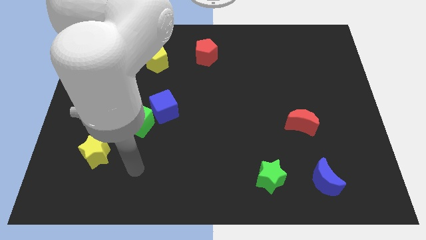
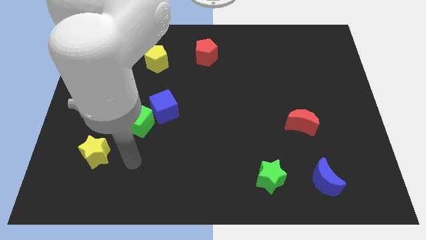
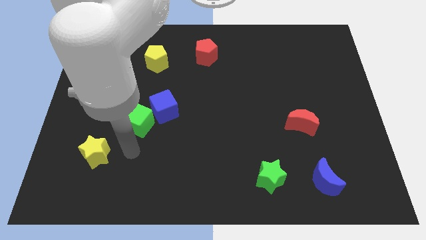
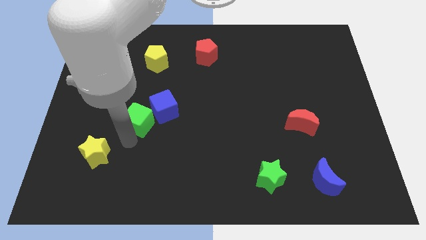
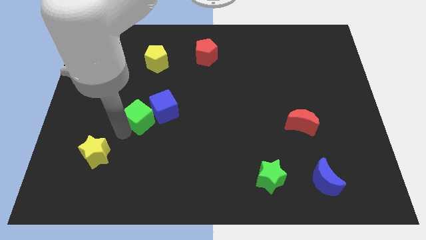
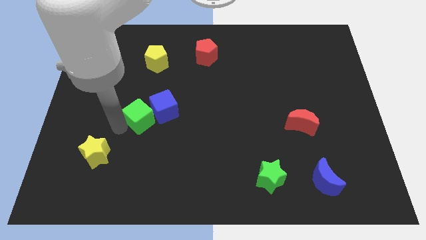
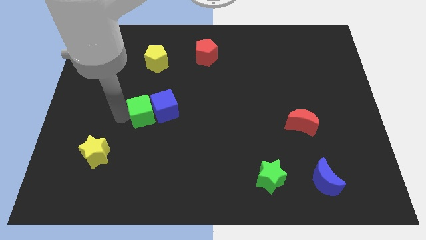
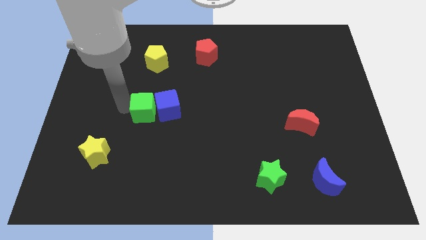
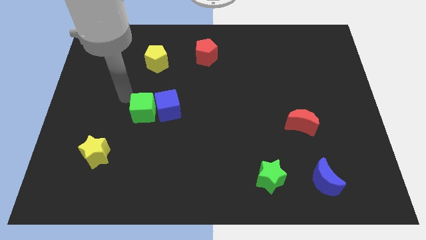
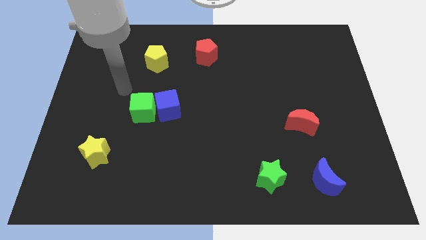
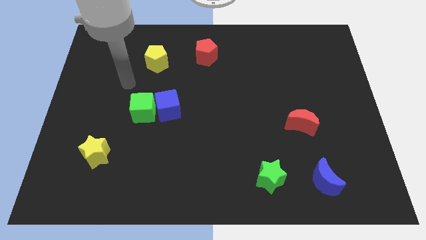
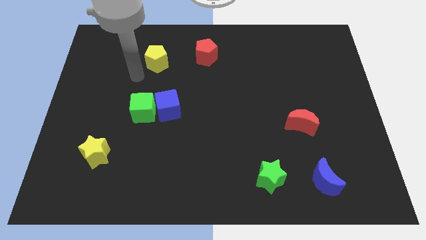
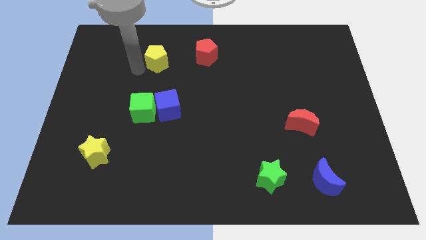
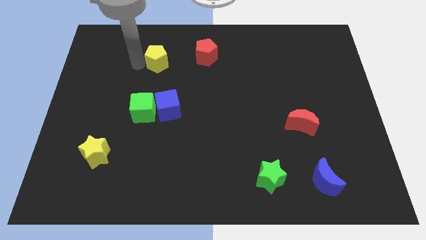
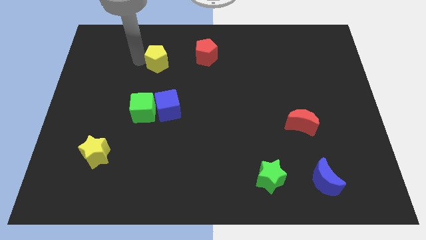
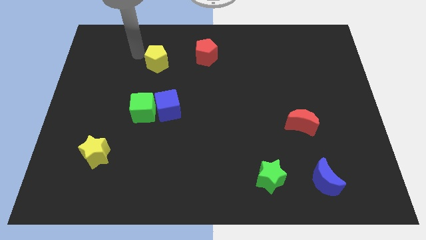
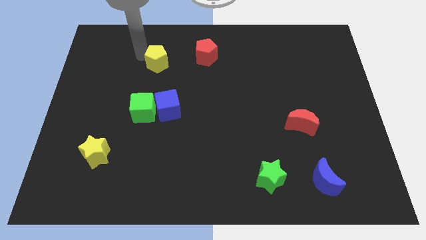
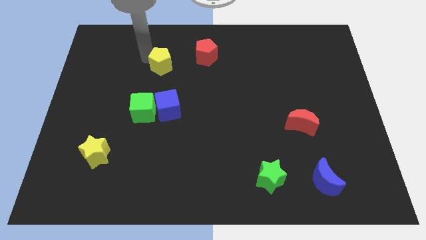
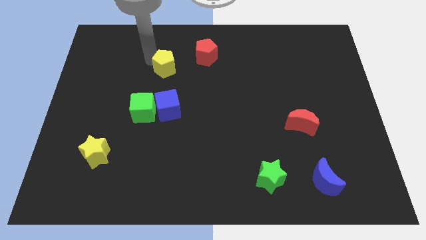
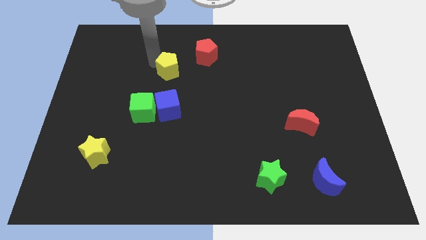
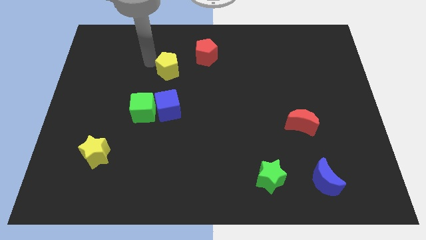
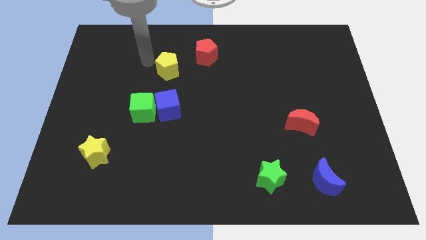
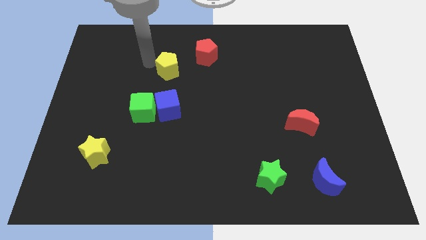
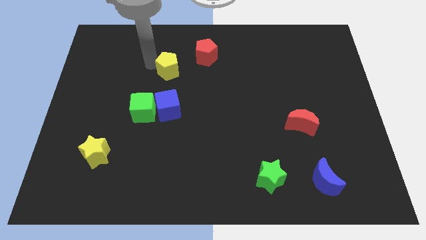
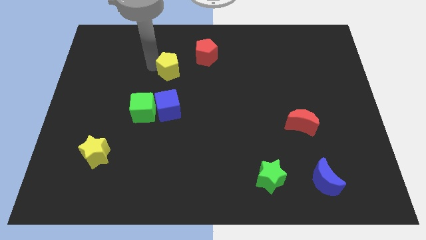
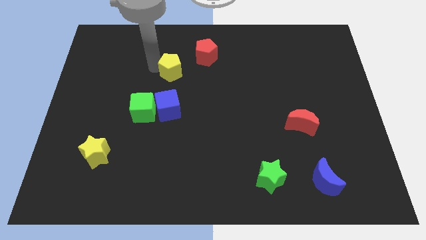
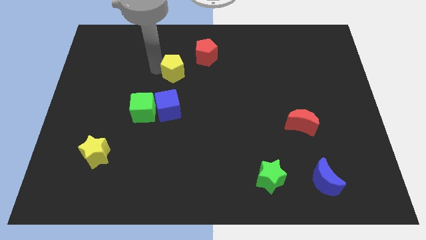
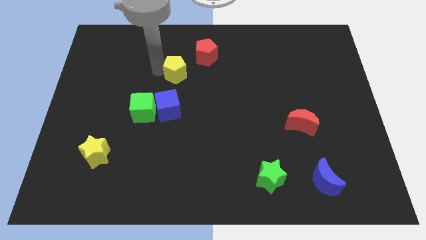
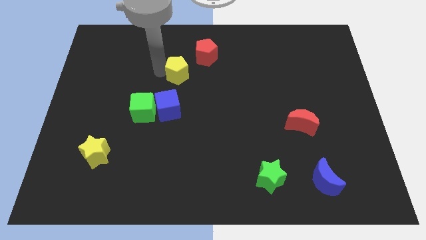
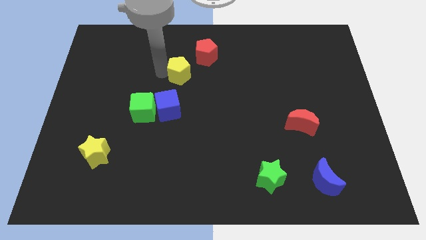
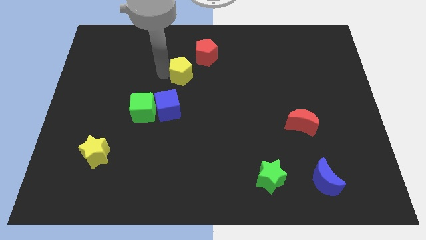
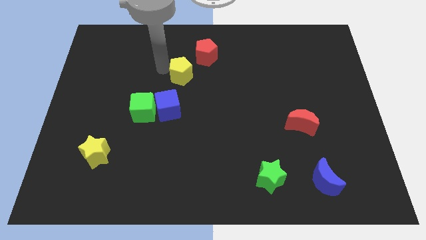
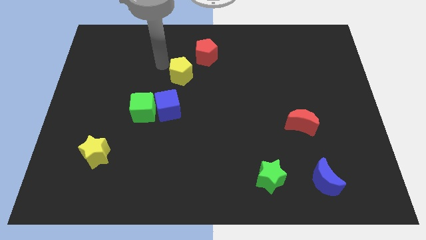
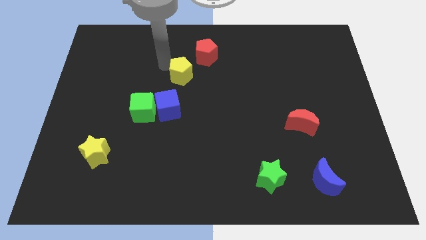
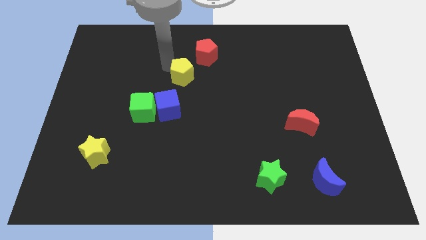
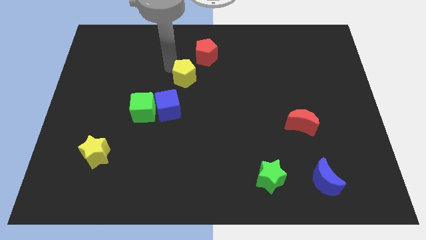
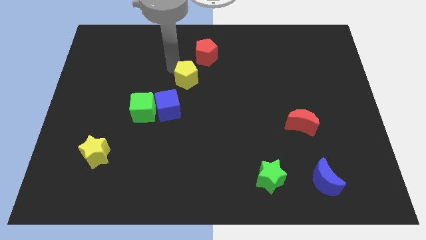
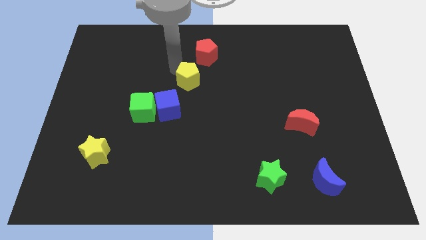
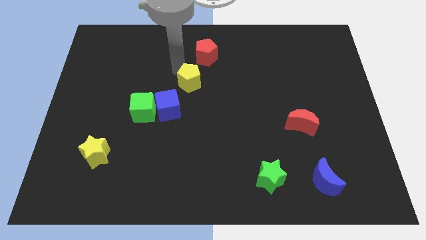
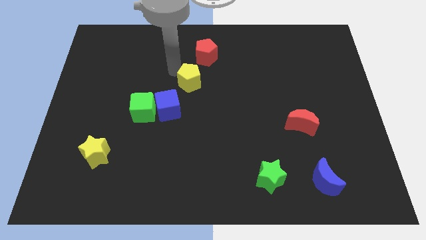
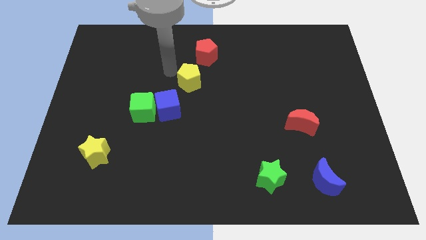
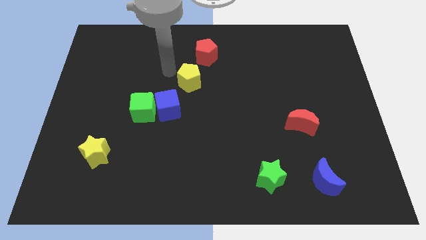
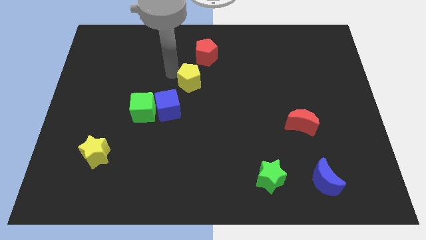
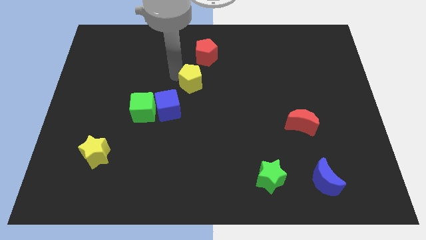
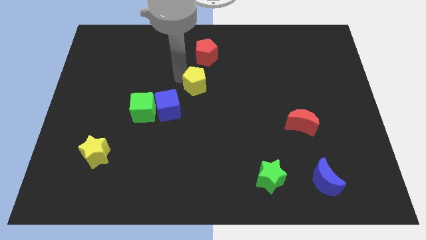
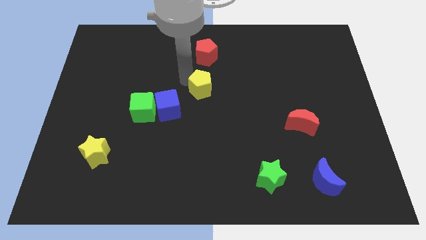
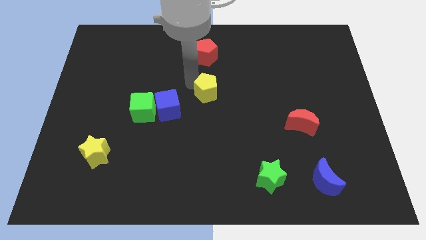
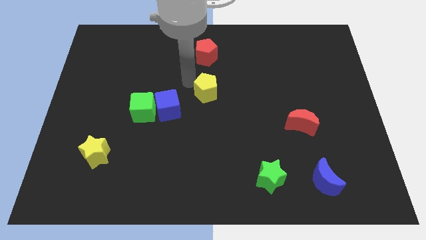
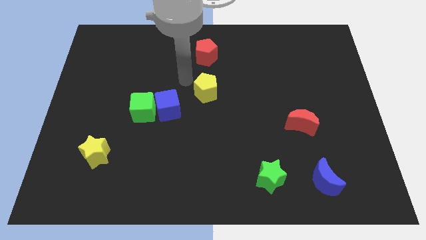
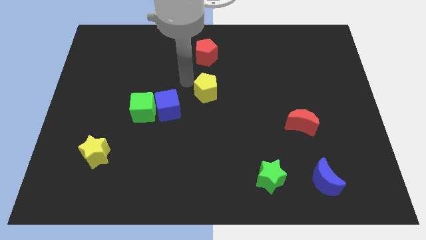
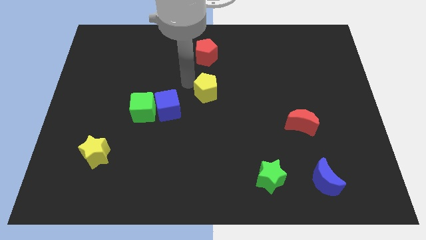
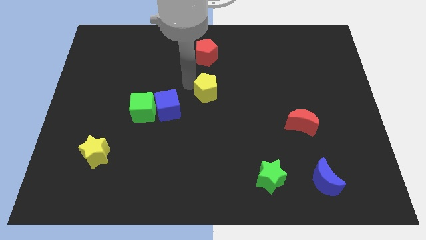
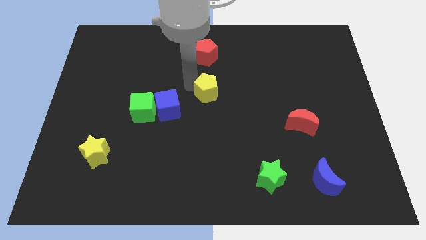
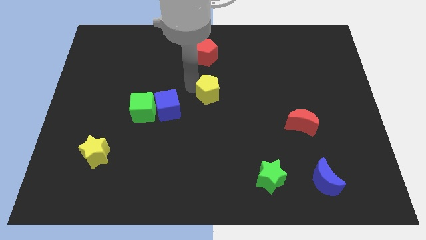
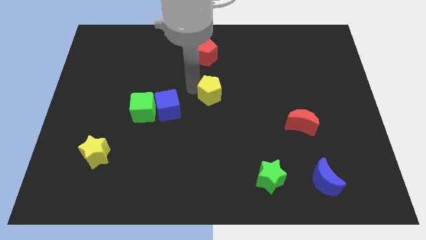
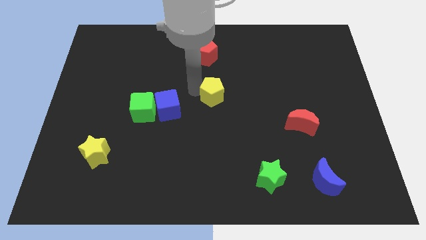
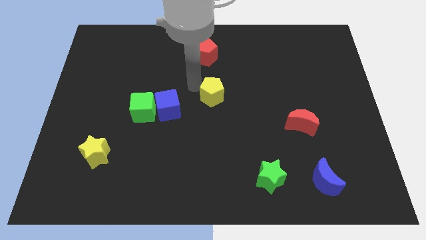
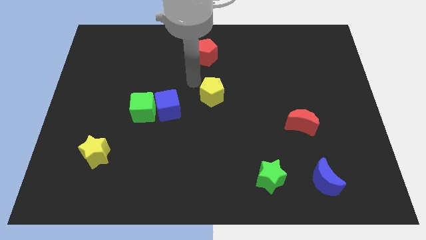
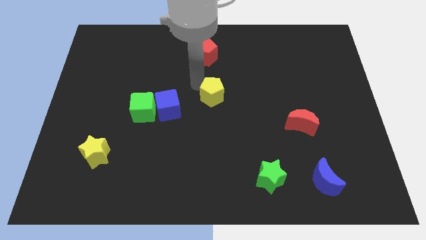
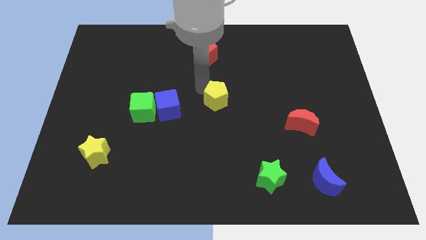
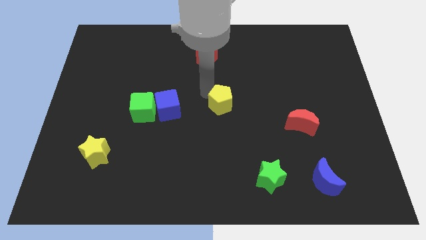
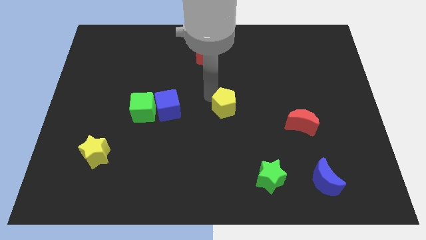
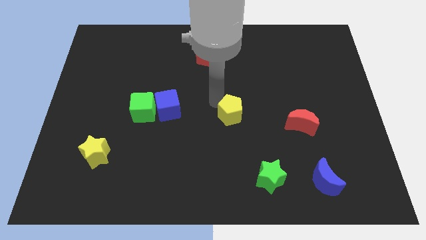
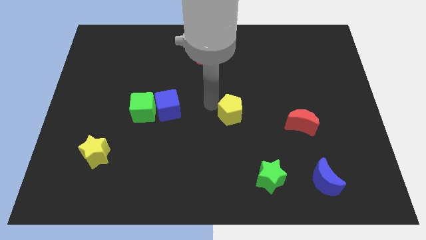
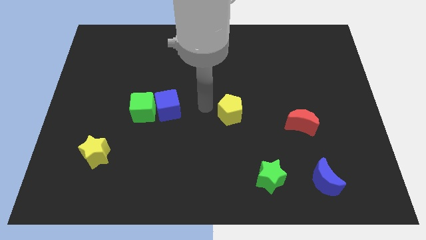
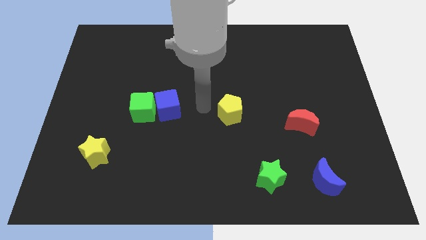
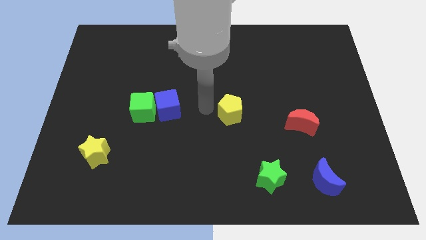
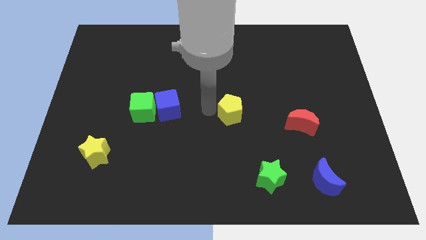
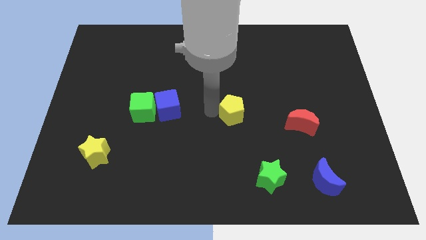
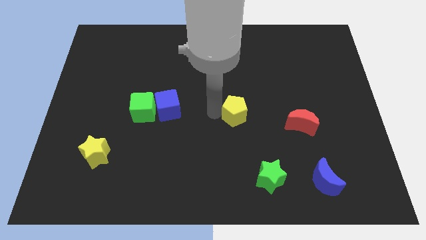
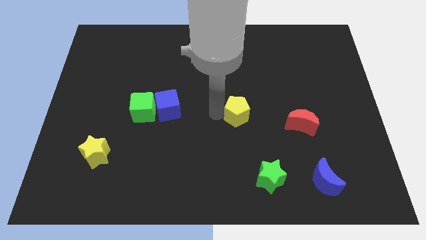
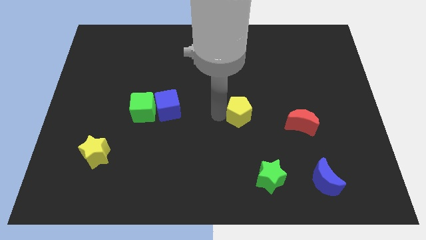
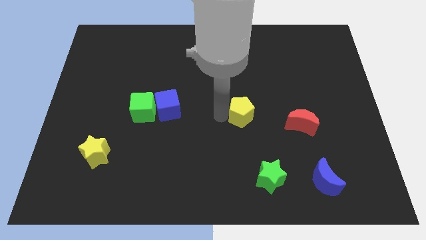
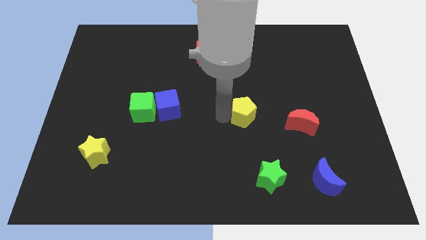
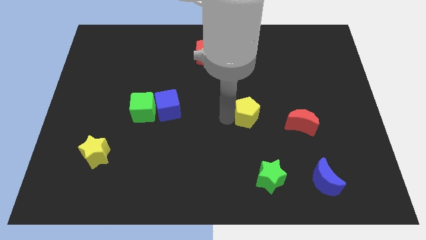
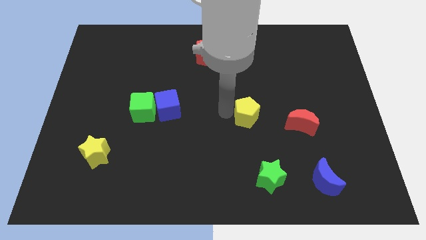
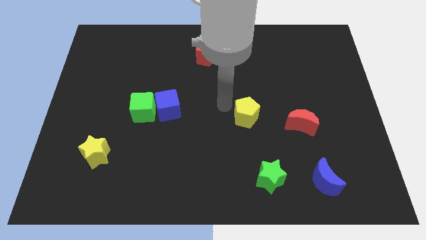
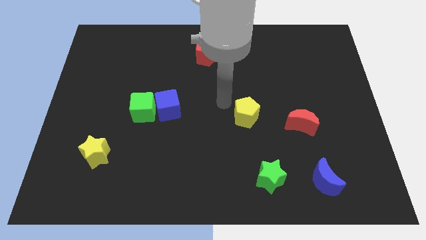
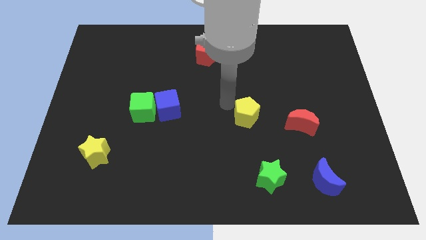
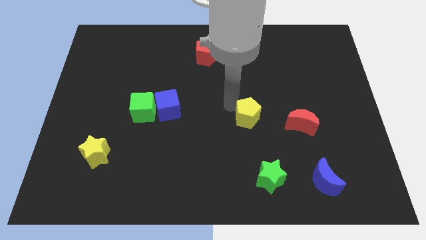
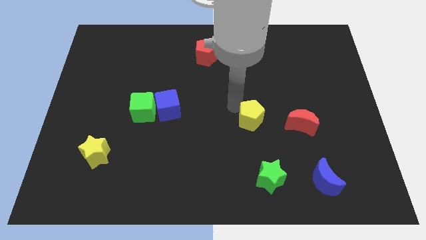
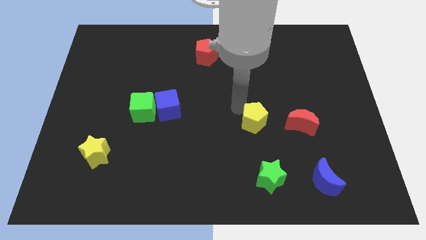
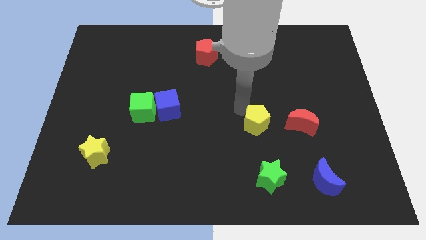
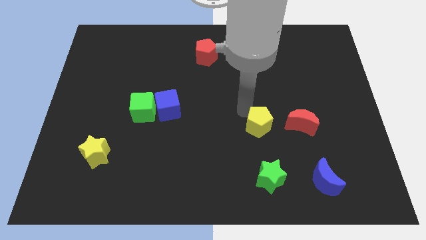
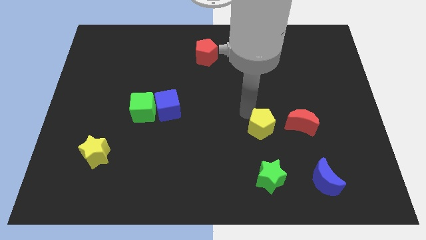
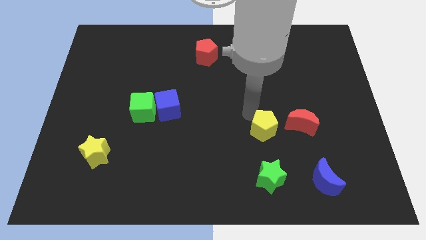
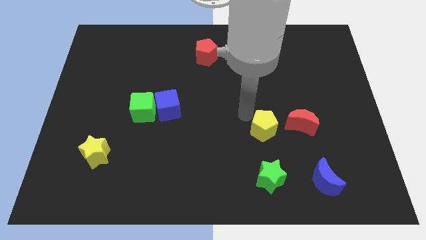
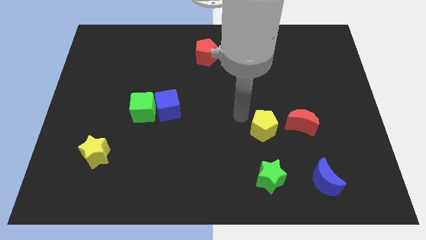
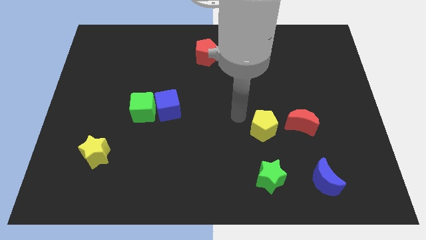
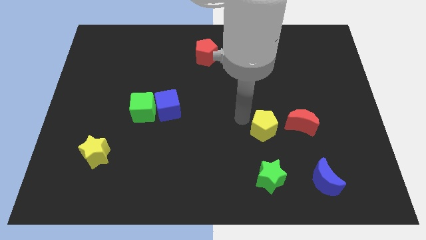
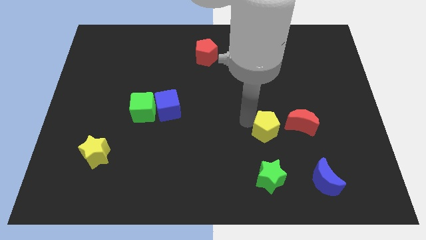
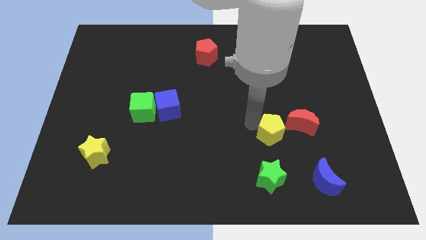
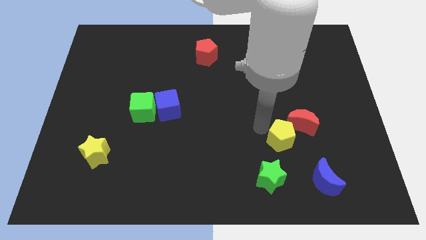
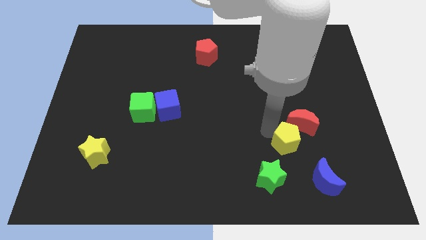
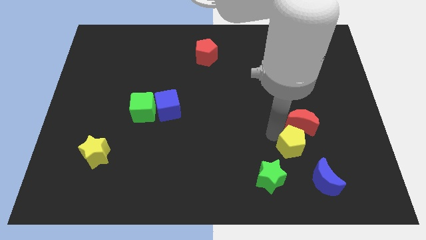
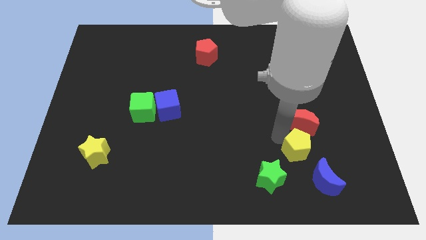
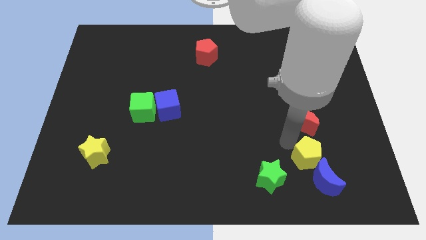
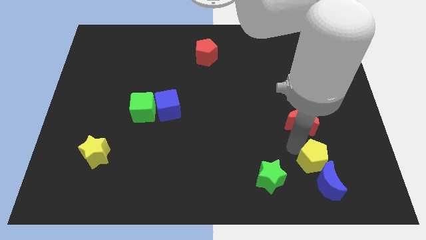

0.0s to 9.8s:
slide the yellow pentagon next to the blue moon
